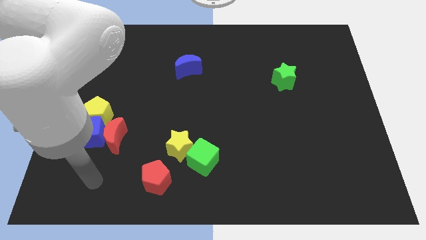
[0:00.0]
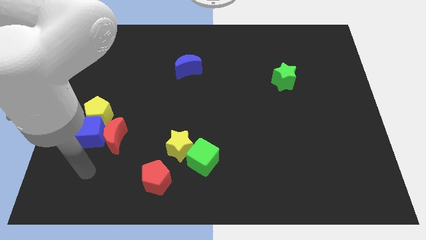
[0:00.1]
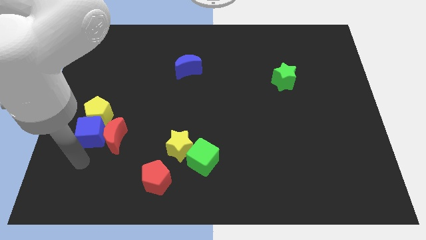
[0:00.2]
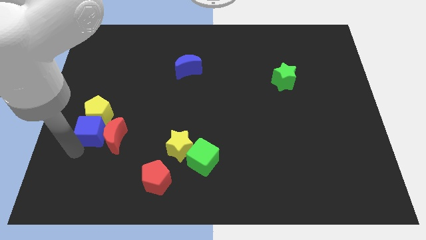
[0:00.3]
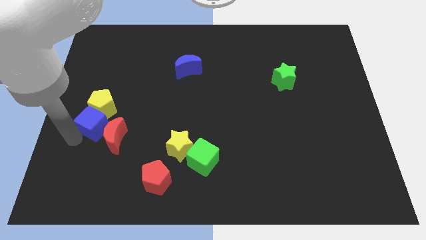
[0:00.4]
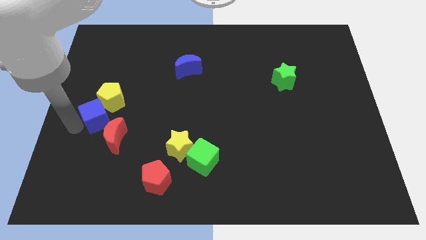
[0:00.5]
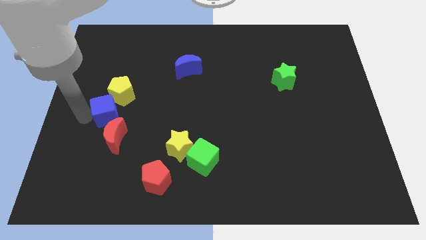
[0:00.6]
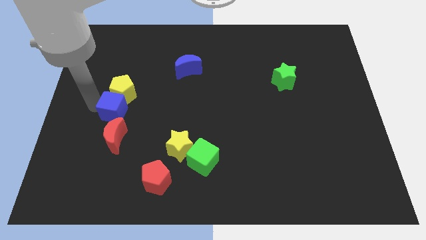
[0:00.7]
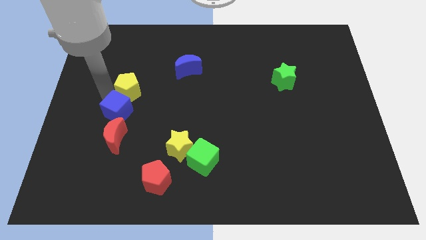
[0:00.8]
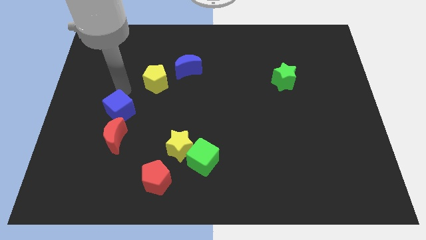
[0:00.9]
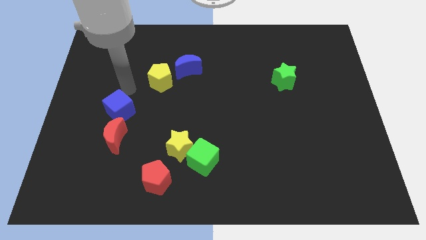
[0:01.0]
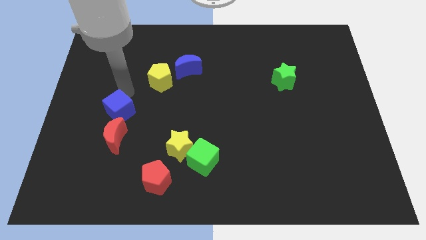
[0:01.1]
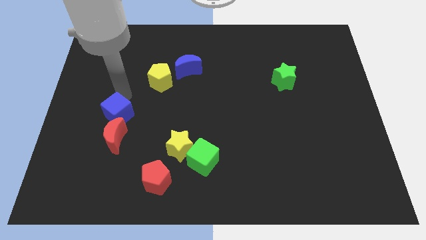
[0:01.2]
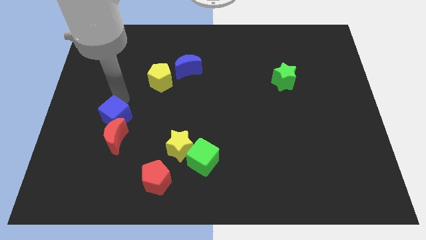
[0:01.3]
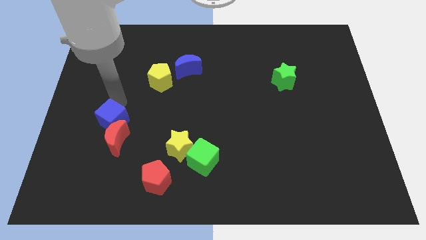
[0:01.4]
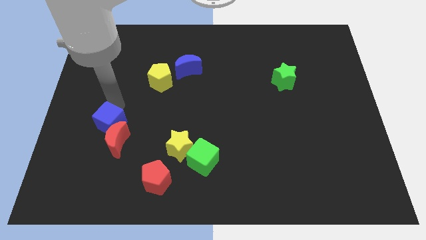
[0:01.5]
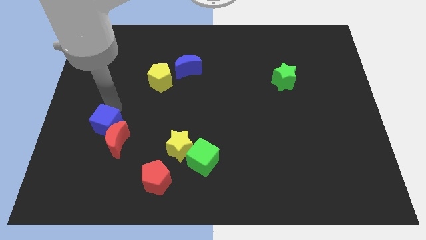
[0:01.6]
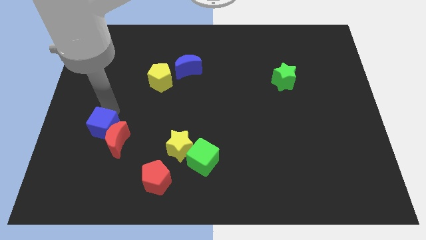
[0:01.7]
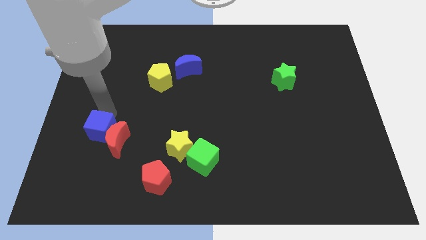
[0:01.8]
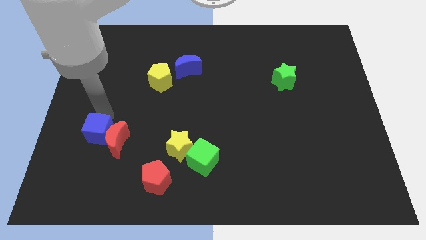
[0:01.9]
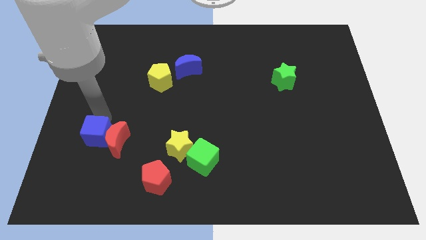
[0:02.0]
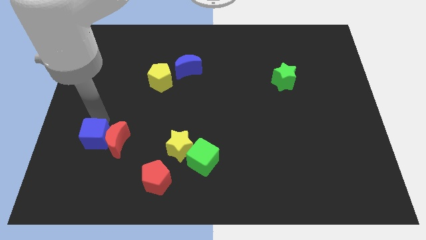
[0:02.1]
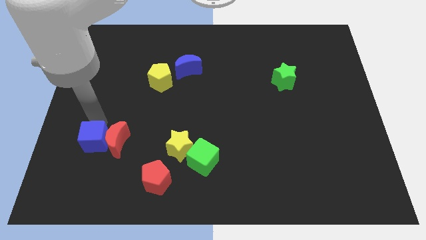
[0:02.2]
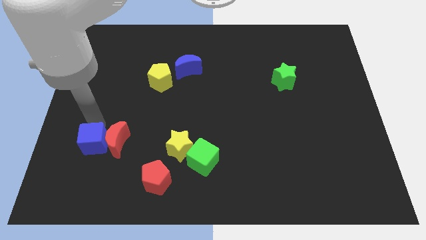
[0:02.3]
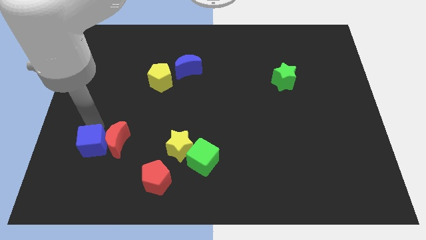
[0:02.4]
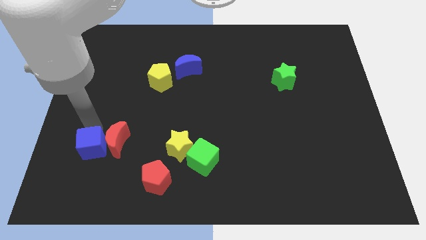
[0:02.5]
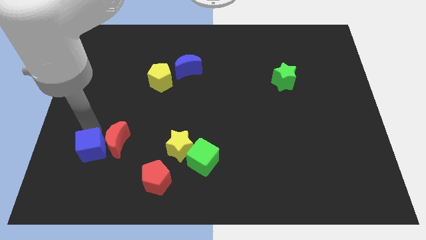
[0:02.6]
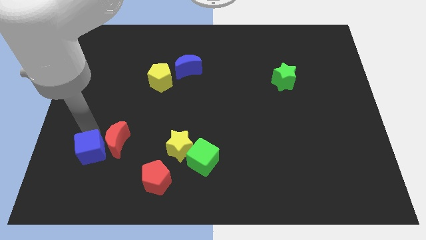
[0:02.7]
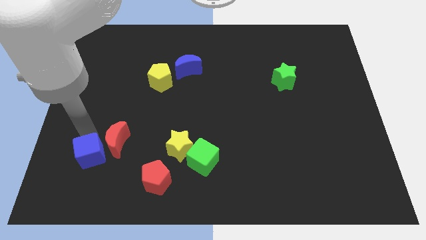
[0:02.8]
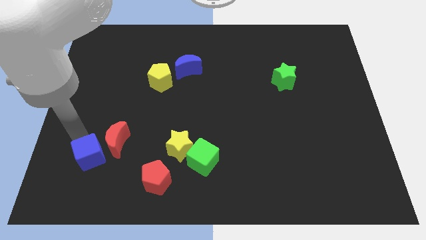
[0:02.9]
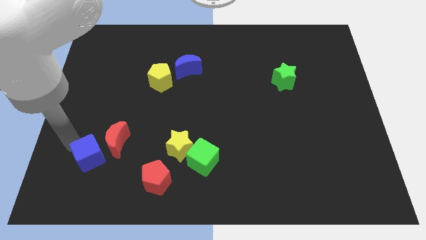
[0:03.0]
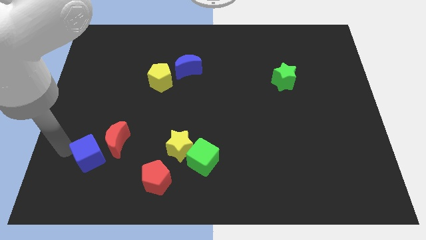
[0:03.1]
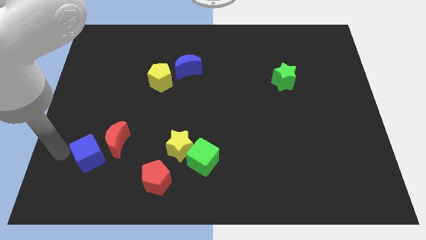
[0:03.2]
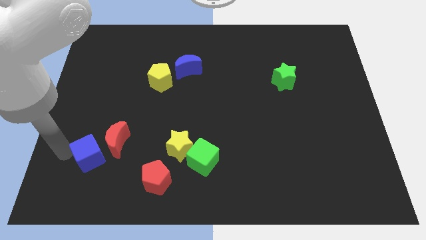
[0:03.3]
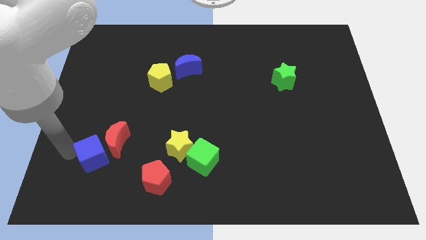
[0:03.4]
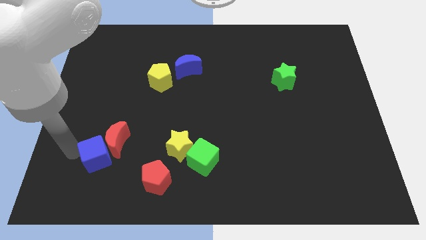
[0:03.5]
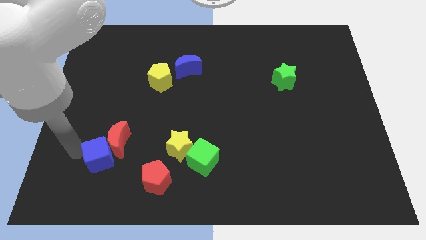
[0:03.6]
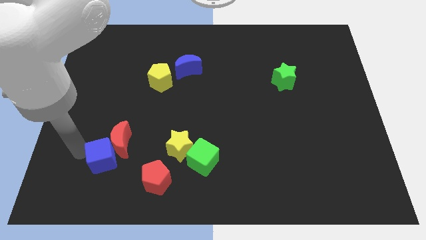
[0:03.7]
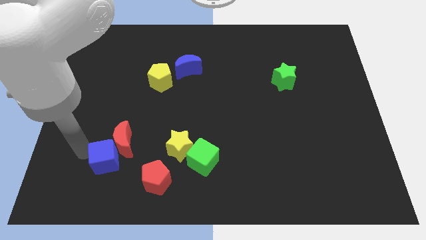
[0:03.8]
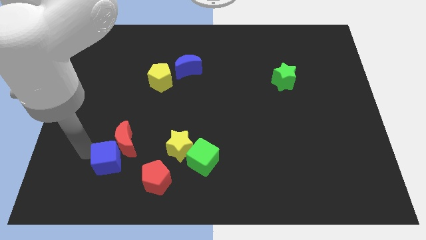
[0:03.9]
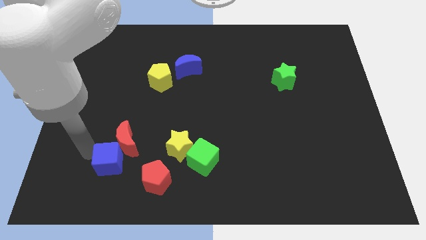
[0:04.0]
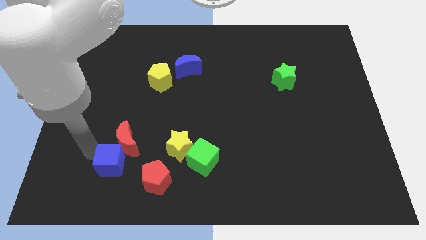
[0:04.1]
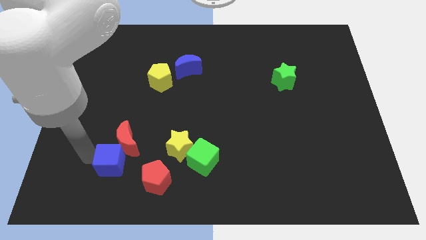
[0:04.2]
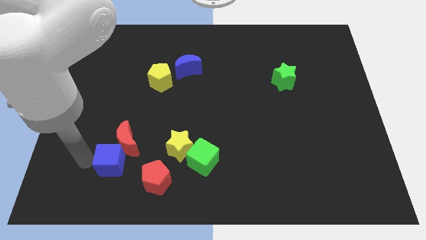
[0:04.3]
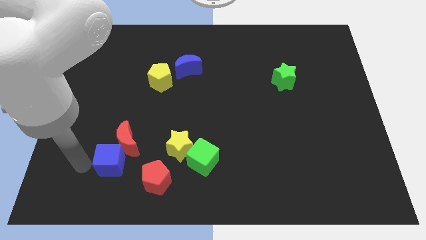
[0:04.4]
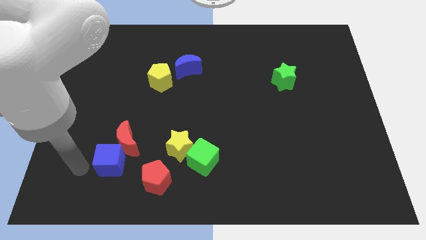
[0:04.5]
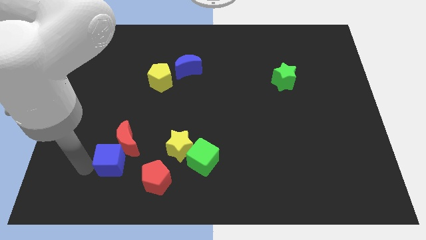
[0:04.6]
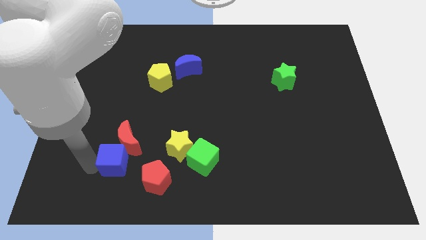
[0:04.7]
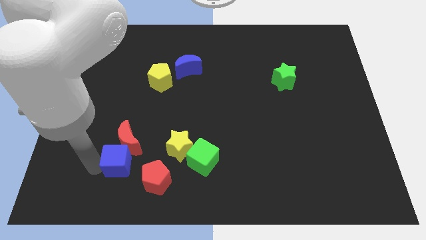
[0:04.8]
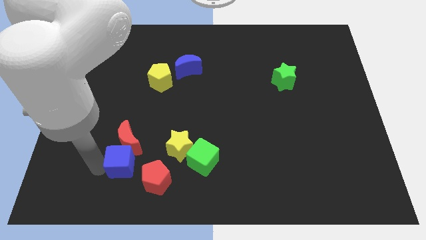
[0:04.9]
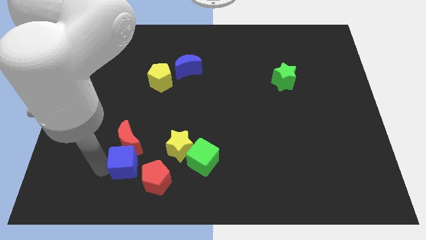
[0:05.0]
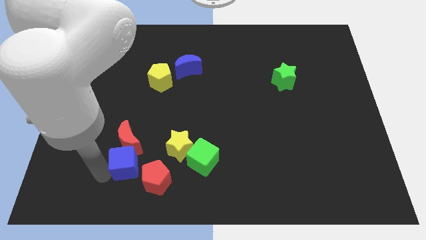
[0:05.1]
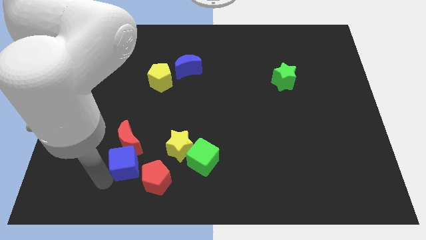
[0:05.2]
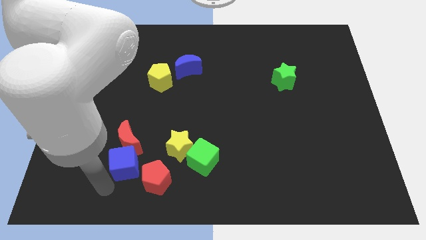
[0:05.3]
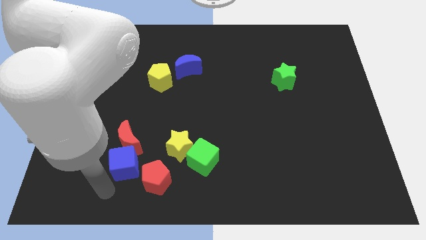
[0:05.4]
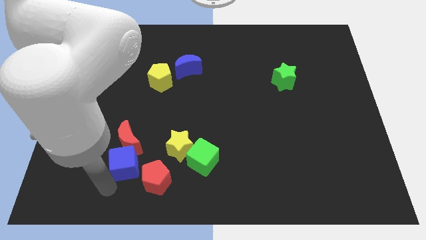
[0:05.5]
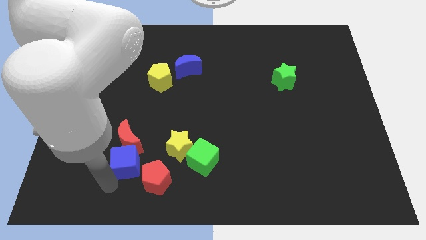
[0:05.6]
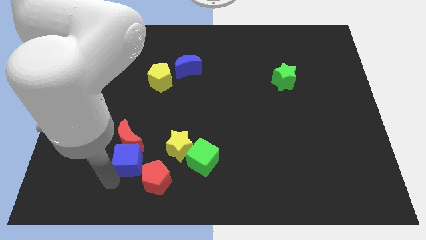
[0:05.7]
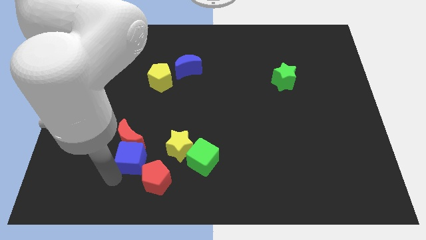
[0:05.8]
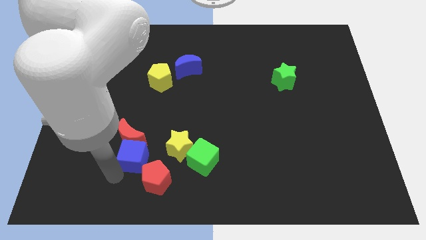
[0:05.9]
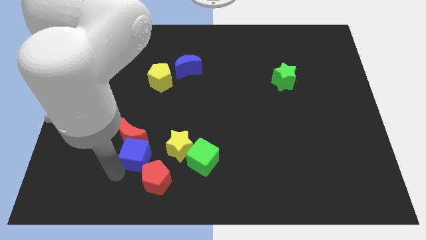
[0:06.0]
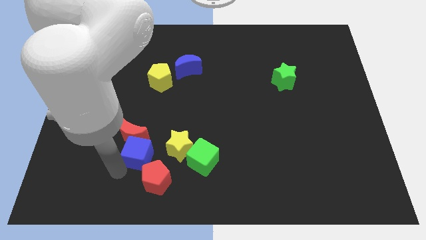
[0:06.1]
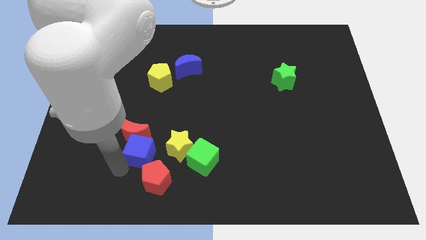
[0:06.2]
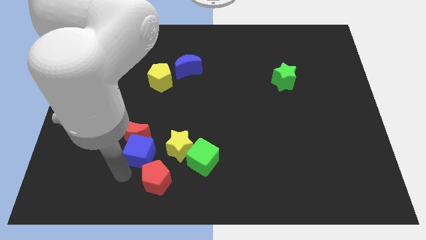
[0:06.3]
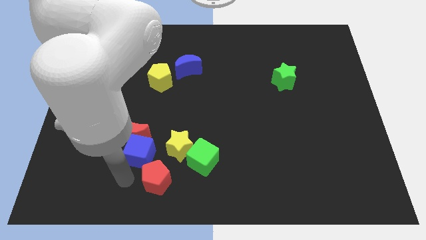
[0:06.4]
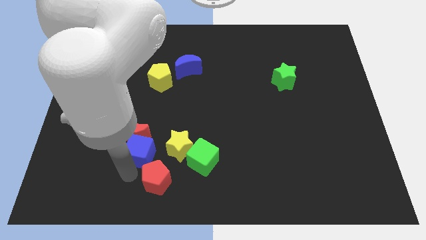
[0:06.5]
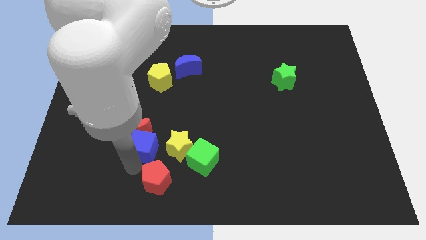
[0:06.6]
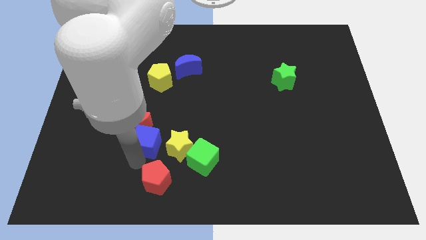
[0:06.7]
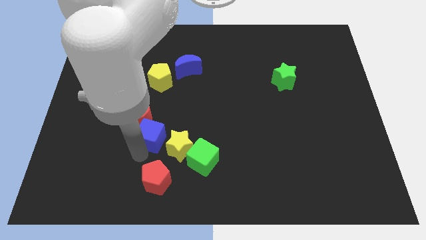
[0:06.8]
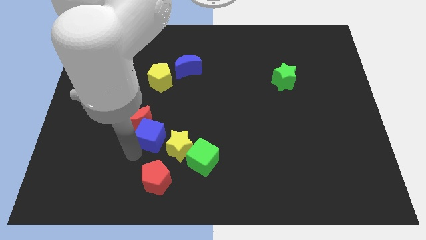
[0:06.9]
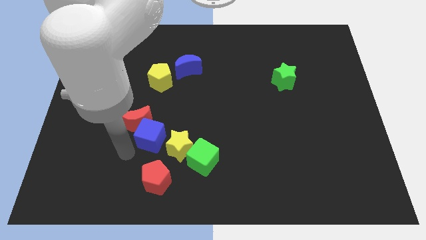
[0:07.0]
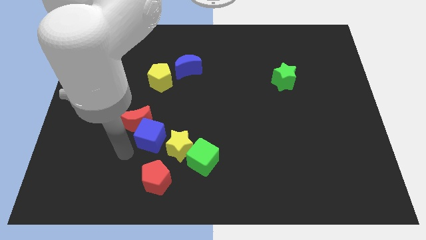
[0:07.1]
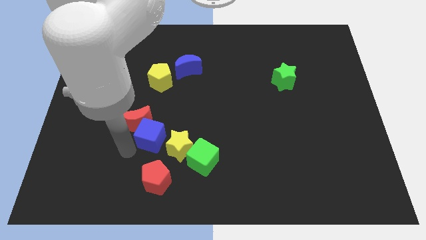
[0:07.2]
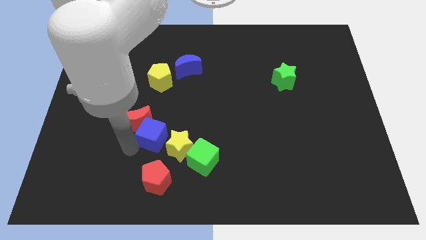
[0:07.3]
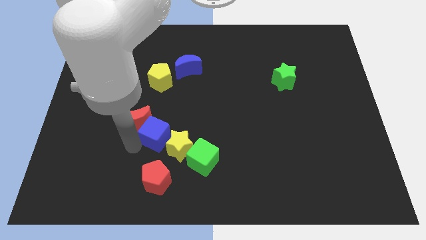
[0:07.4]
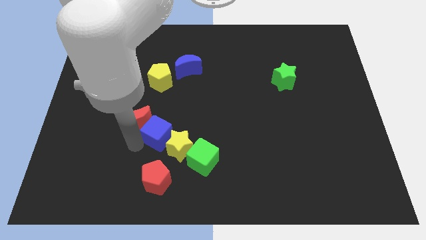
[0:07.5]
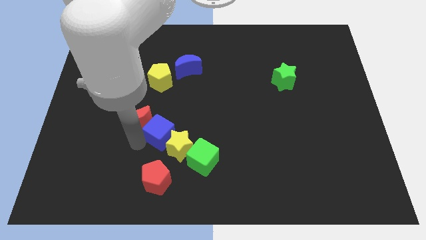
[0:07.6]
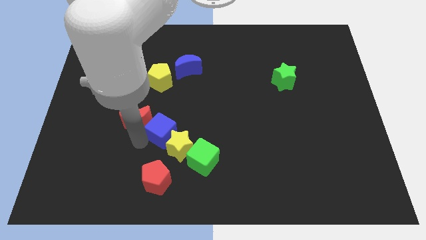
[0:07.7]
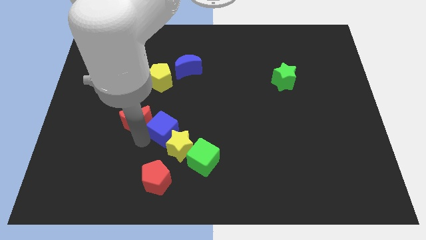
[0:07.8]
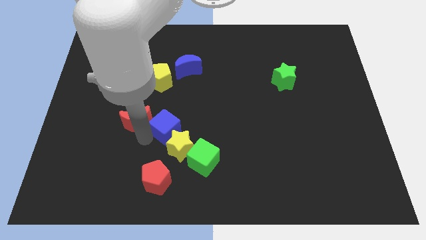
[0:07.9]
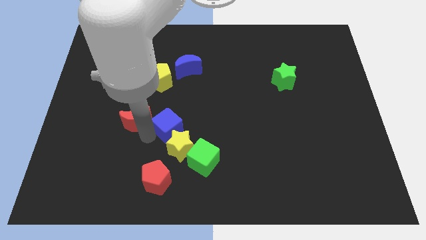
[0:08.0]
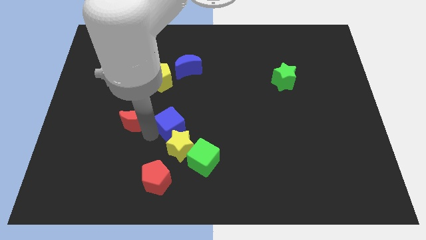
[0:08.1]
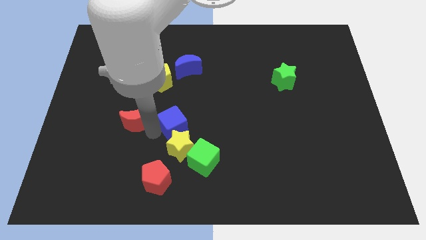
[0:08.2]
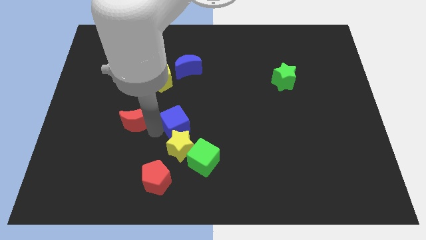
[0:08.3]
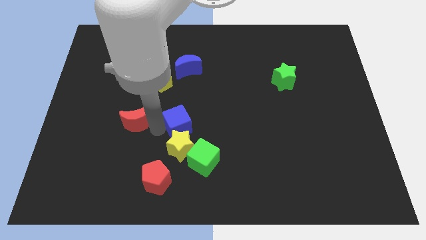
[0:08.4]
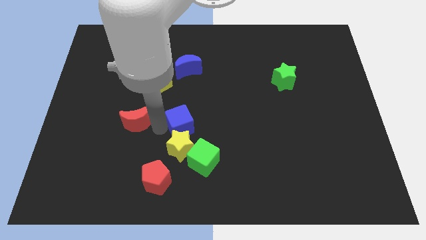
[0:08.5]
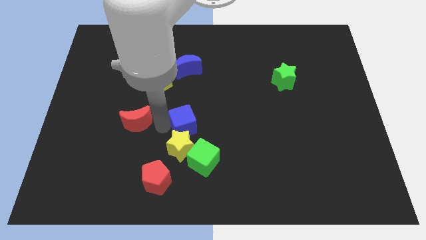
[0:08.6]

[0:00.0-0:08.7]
push the blue cube right
